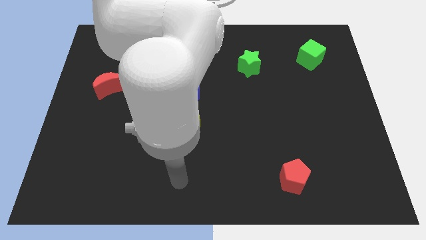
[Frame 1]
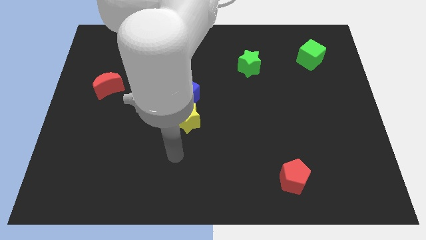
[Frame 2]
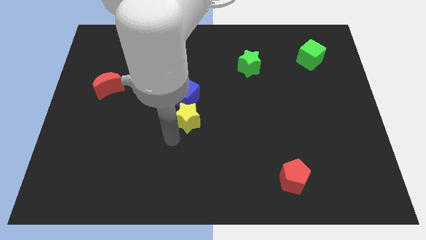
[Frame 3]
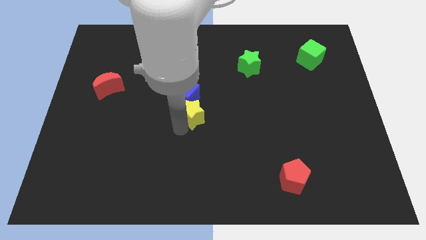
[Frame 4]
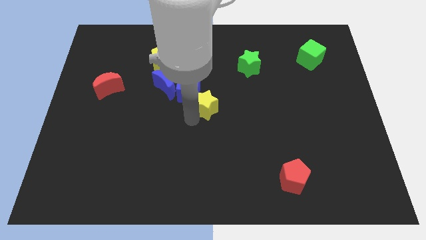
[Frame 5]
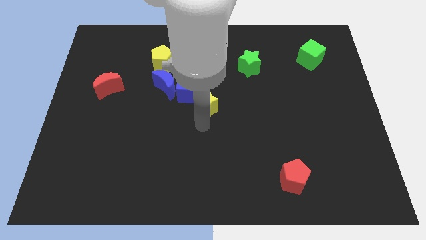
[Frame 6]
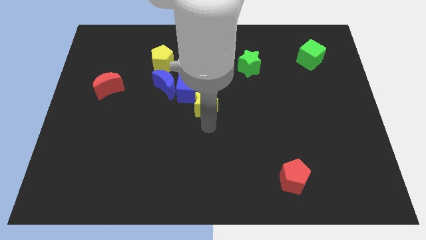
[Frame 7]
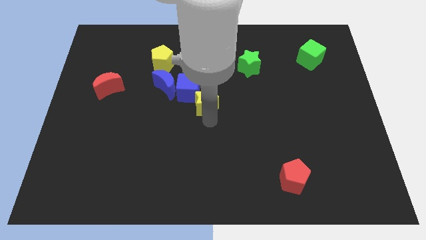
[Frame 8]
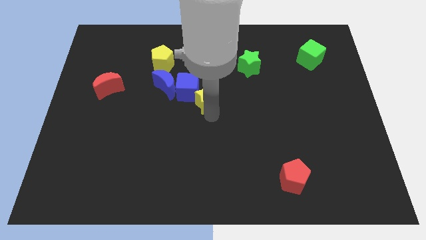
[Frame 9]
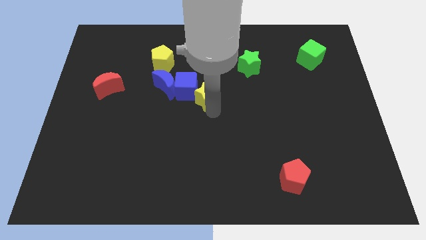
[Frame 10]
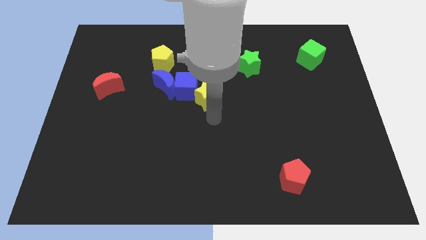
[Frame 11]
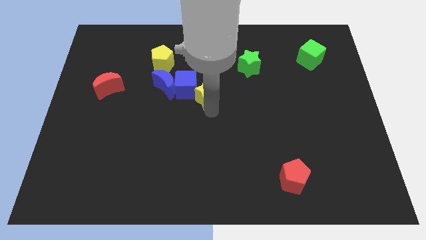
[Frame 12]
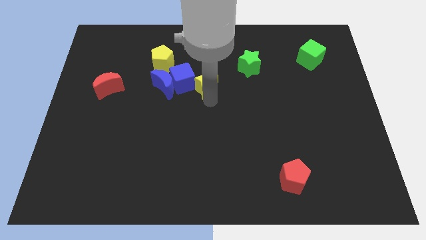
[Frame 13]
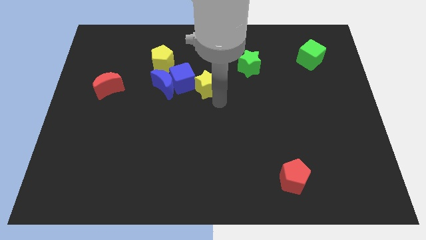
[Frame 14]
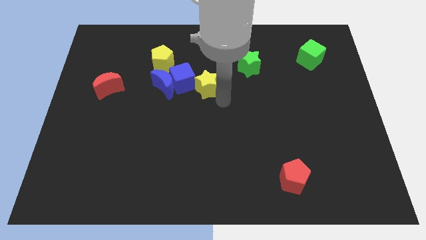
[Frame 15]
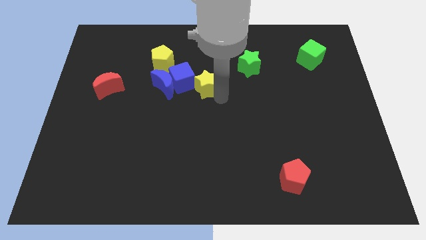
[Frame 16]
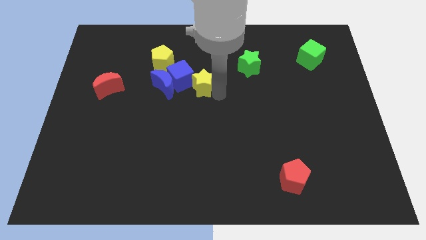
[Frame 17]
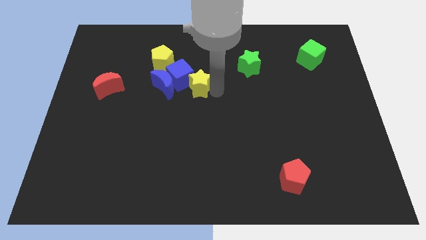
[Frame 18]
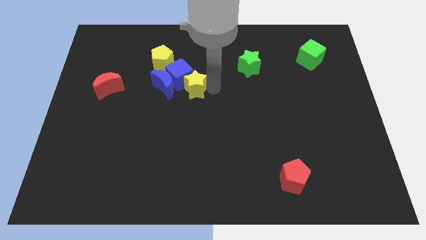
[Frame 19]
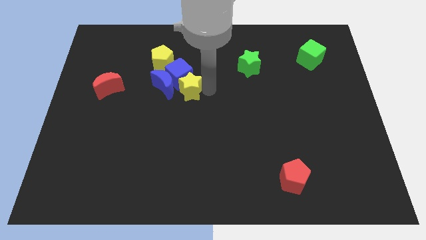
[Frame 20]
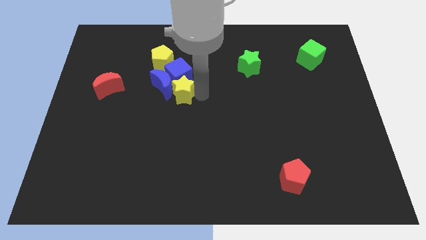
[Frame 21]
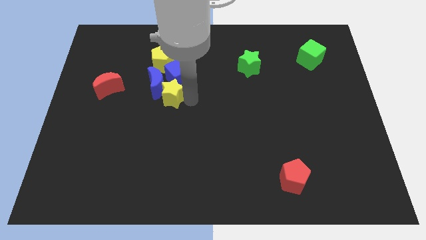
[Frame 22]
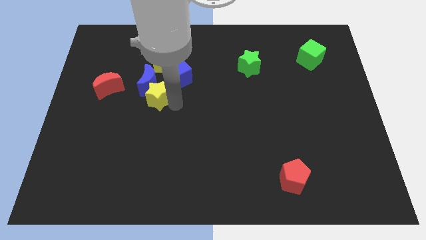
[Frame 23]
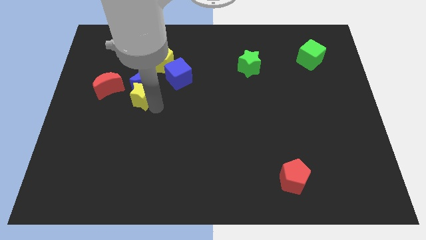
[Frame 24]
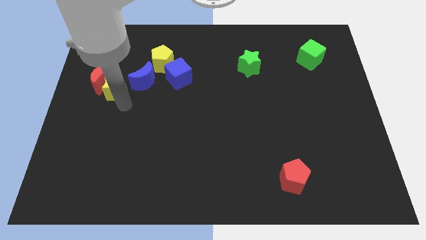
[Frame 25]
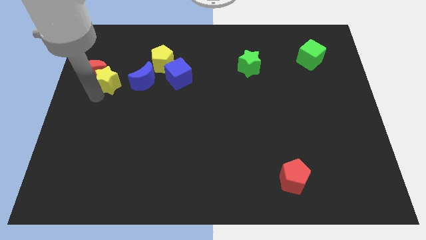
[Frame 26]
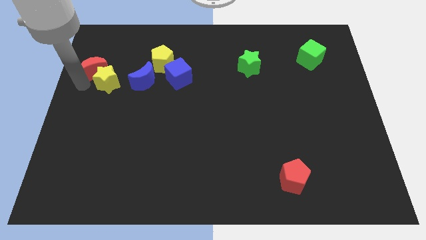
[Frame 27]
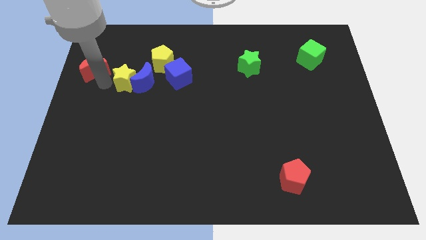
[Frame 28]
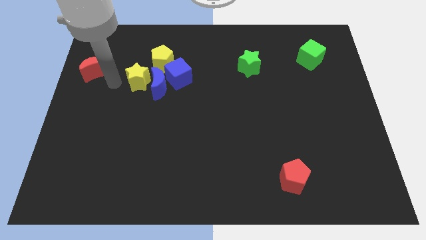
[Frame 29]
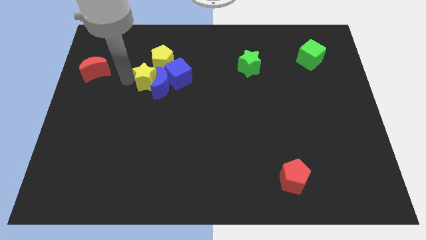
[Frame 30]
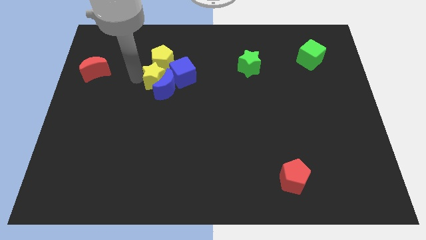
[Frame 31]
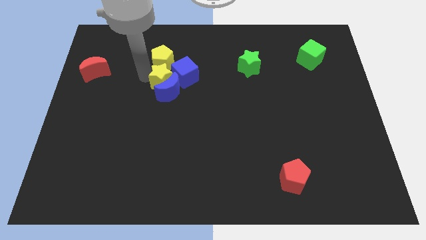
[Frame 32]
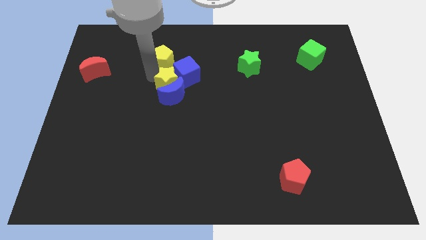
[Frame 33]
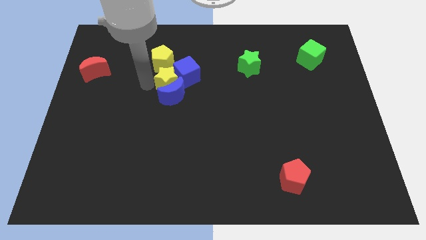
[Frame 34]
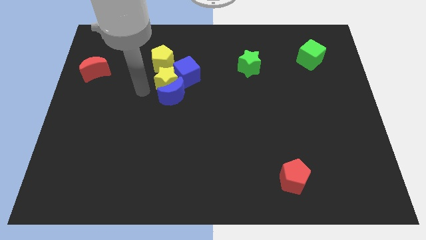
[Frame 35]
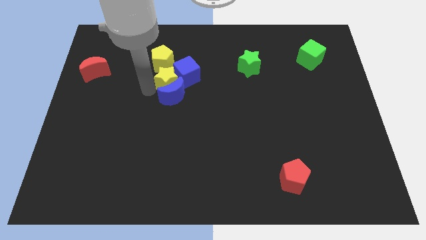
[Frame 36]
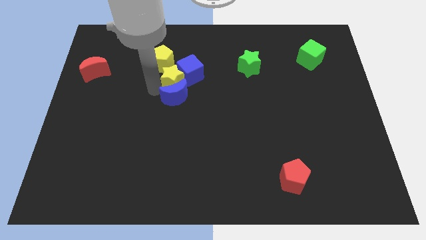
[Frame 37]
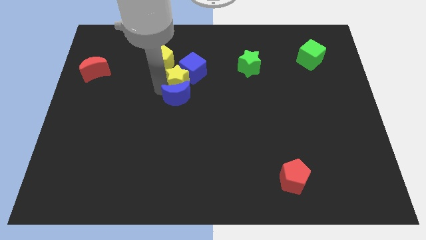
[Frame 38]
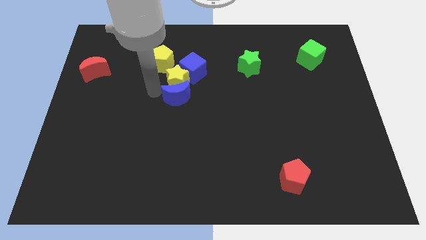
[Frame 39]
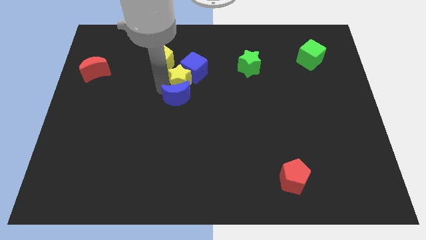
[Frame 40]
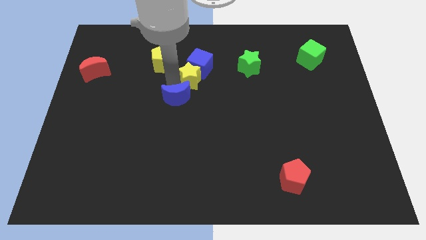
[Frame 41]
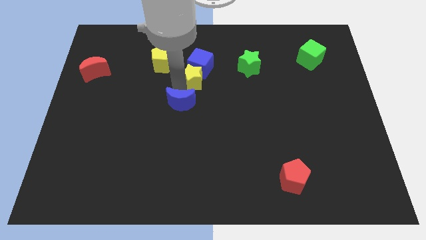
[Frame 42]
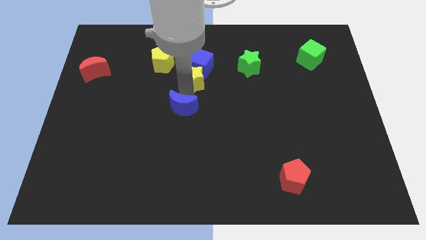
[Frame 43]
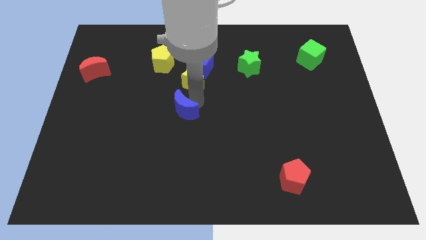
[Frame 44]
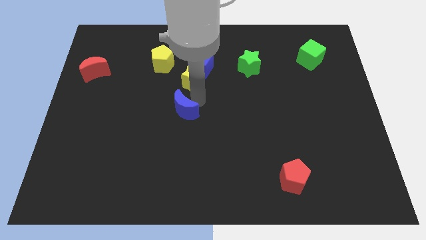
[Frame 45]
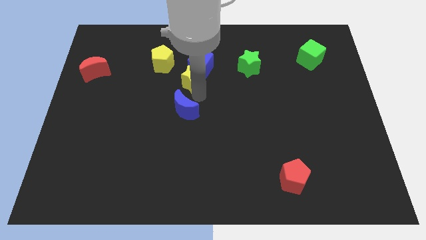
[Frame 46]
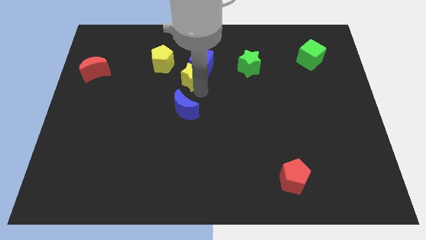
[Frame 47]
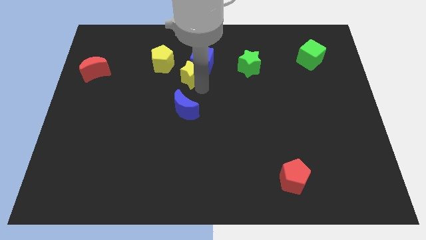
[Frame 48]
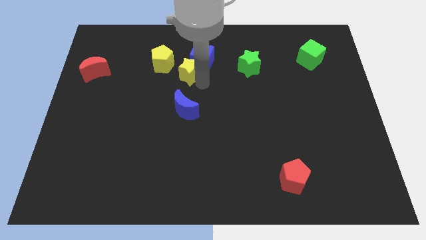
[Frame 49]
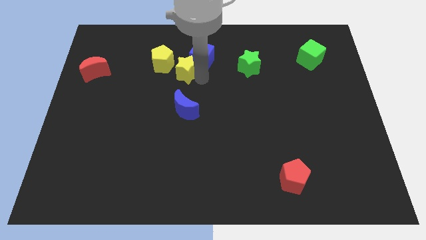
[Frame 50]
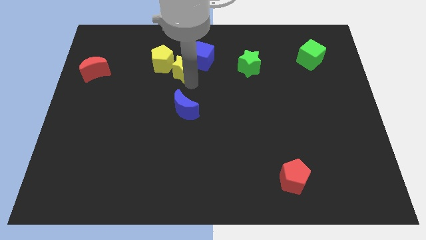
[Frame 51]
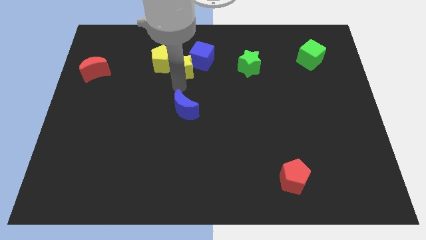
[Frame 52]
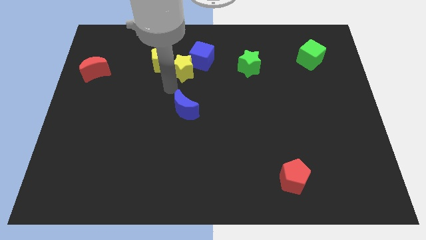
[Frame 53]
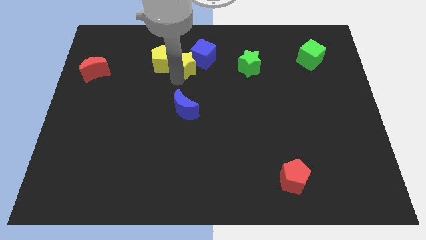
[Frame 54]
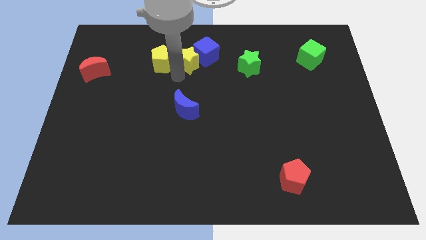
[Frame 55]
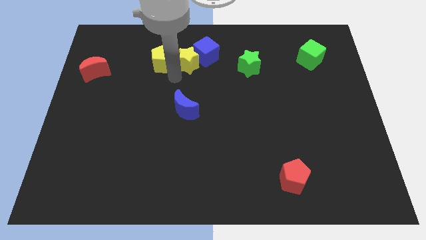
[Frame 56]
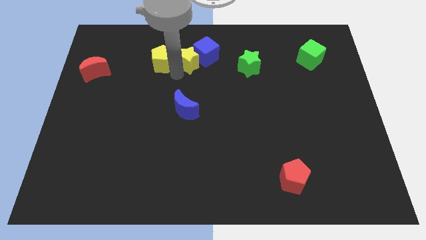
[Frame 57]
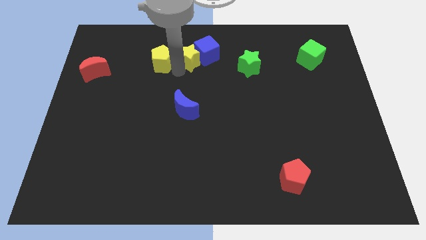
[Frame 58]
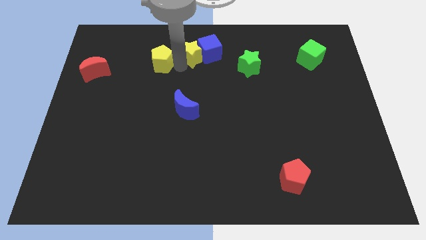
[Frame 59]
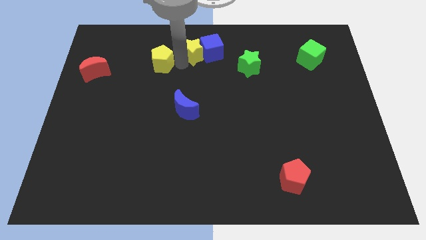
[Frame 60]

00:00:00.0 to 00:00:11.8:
push the yellow star to the top side
